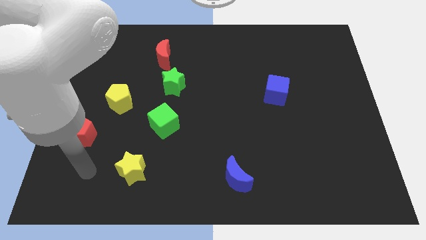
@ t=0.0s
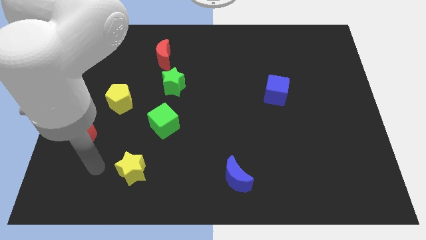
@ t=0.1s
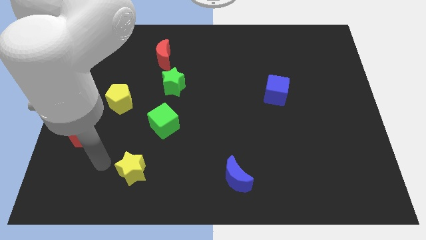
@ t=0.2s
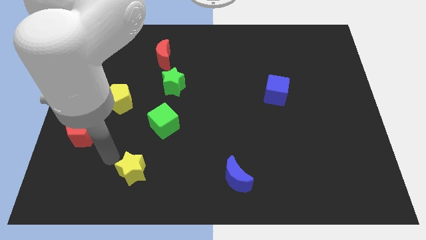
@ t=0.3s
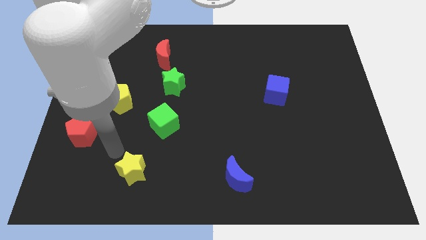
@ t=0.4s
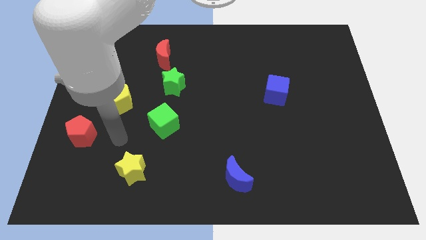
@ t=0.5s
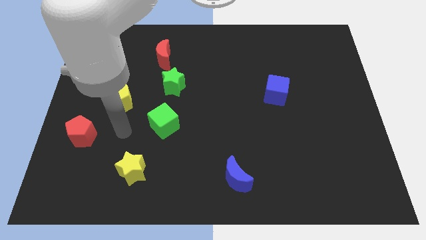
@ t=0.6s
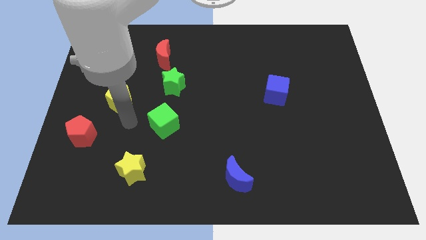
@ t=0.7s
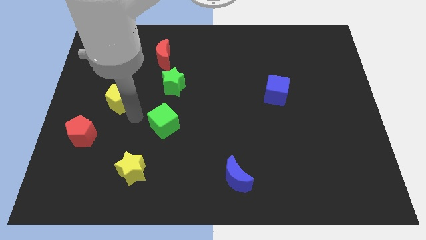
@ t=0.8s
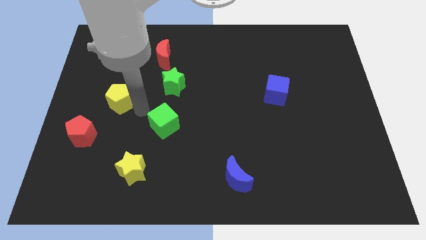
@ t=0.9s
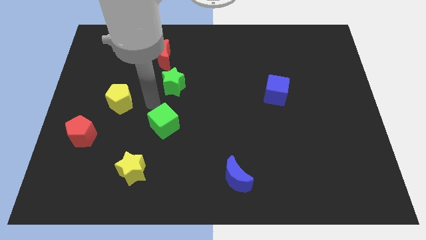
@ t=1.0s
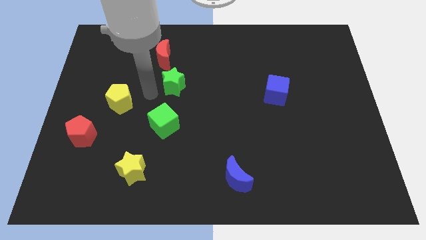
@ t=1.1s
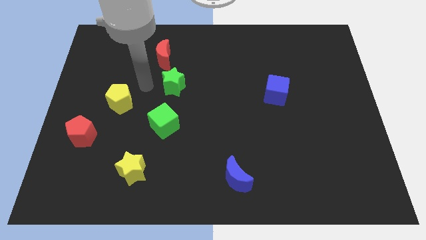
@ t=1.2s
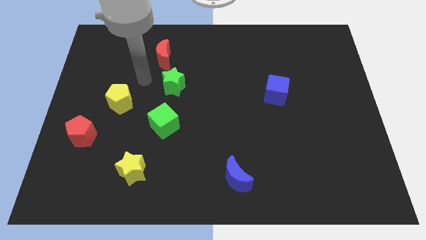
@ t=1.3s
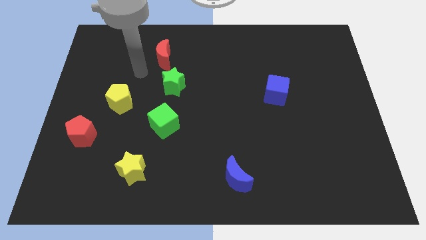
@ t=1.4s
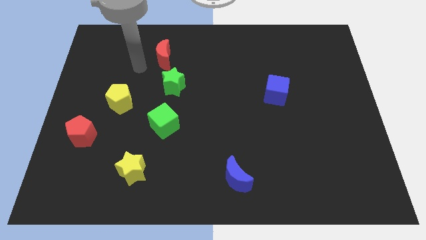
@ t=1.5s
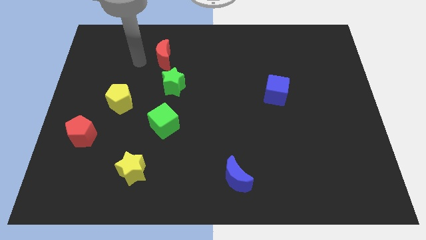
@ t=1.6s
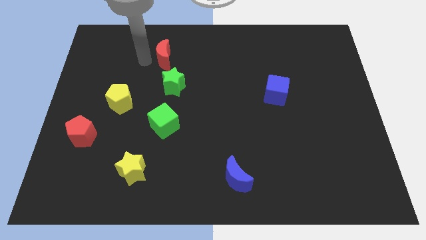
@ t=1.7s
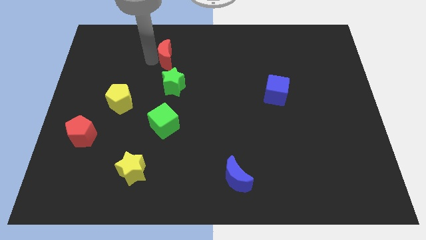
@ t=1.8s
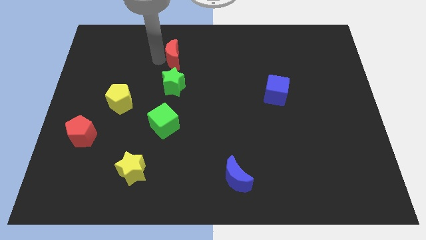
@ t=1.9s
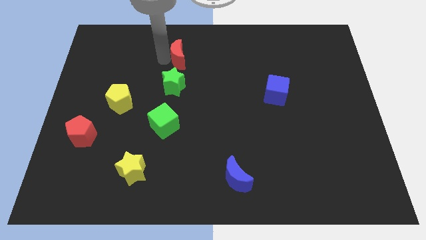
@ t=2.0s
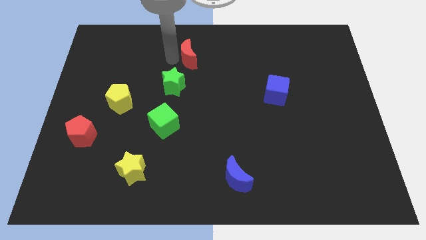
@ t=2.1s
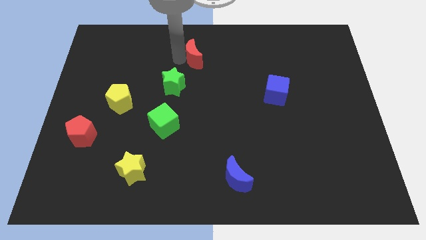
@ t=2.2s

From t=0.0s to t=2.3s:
slide the red moon a bit right

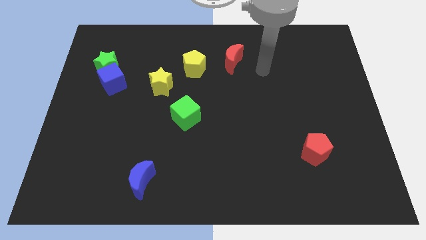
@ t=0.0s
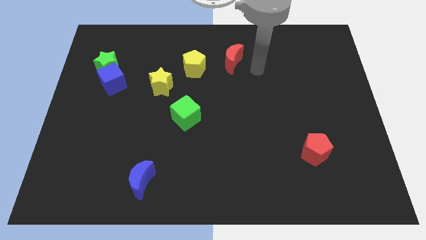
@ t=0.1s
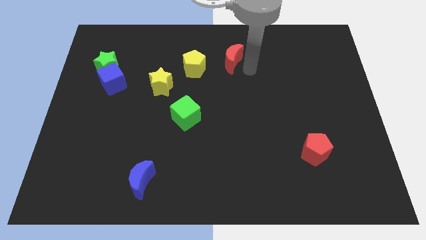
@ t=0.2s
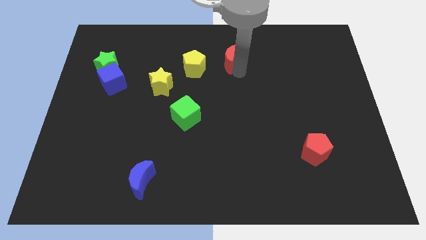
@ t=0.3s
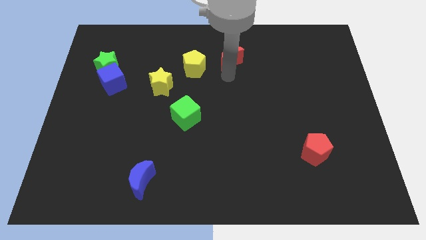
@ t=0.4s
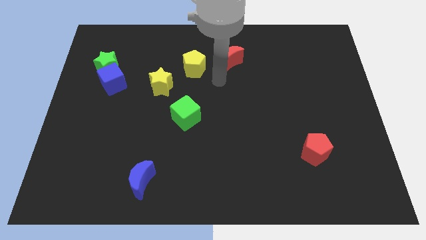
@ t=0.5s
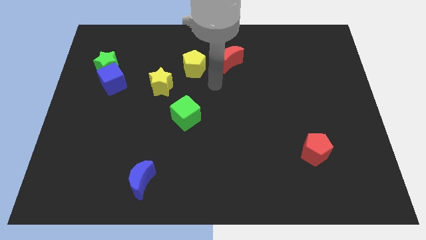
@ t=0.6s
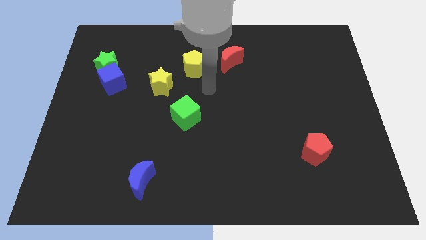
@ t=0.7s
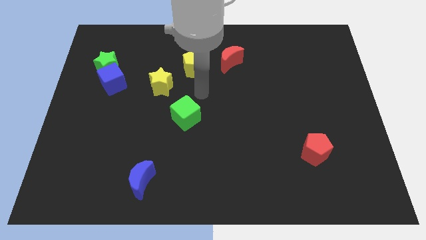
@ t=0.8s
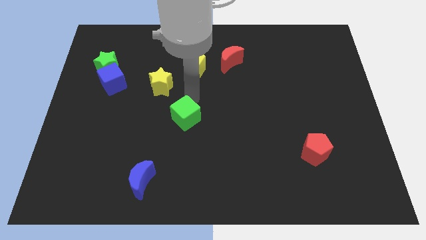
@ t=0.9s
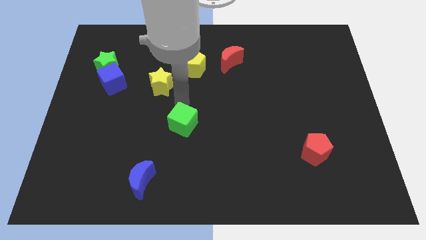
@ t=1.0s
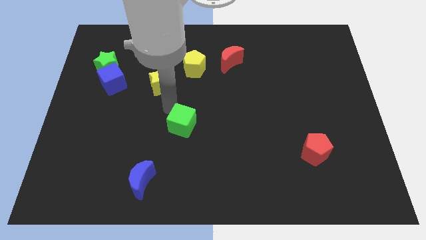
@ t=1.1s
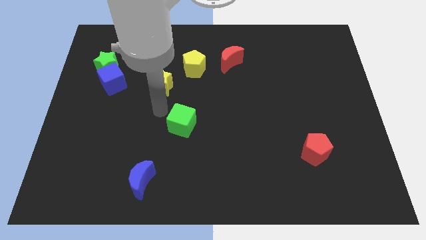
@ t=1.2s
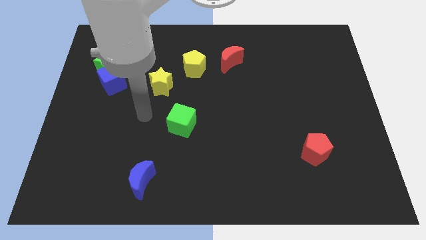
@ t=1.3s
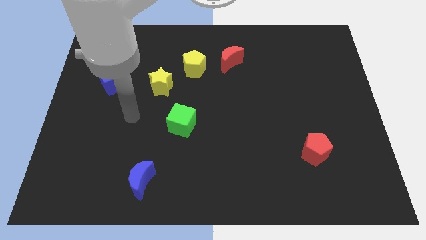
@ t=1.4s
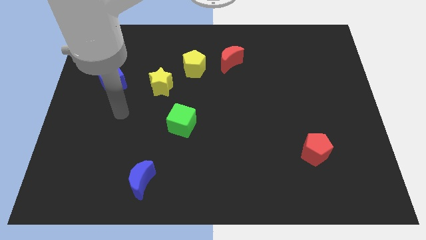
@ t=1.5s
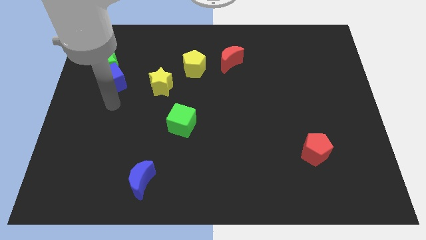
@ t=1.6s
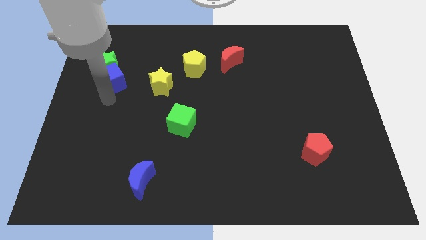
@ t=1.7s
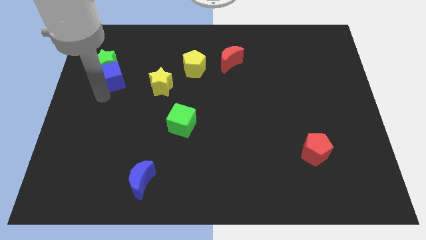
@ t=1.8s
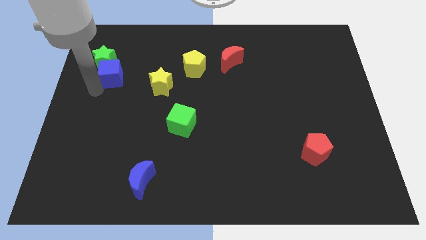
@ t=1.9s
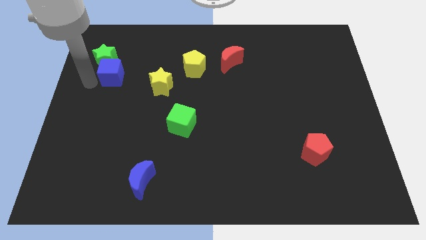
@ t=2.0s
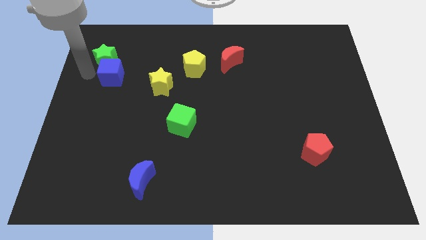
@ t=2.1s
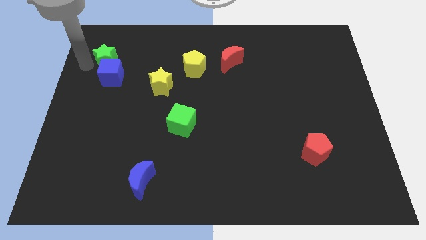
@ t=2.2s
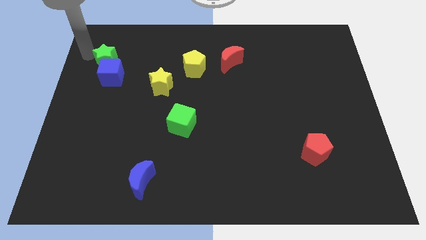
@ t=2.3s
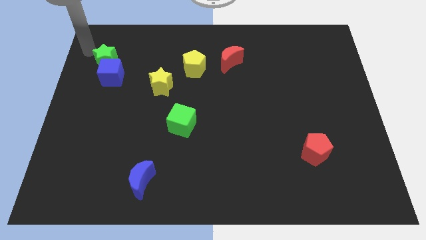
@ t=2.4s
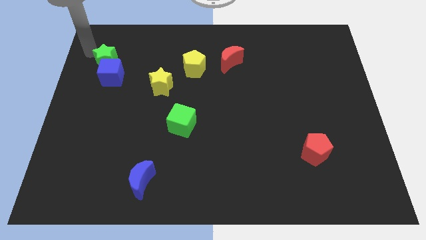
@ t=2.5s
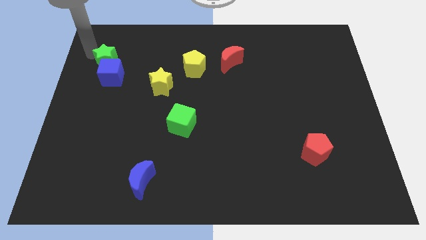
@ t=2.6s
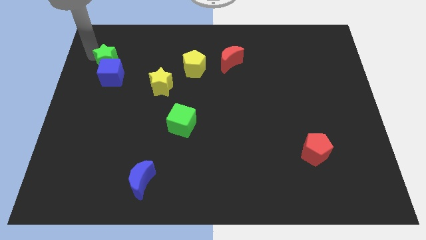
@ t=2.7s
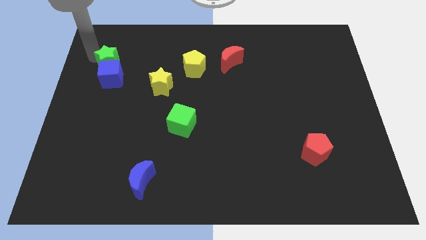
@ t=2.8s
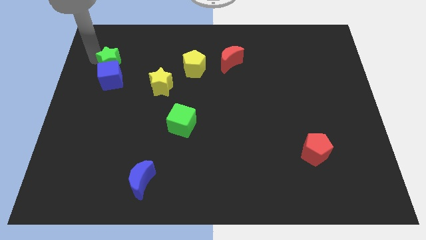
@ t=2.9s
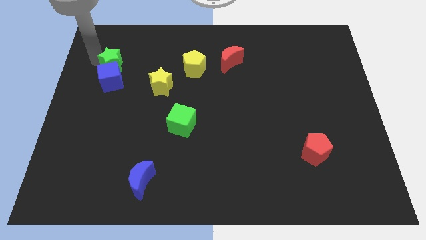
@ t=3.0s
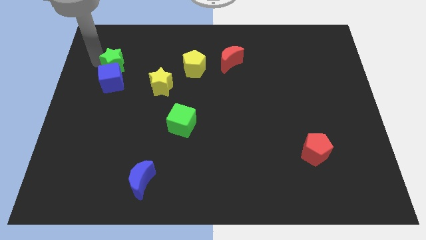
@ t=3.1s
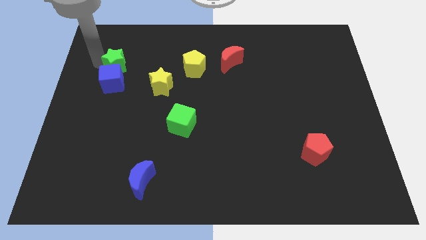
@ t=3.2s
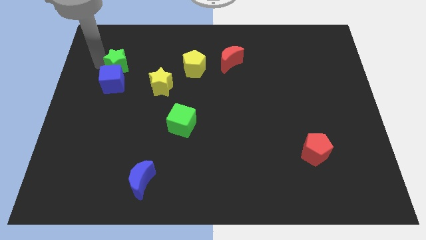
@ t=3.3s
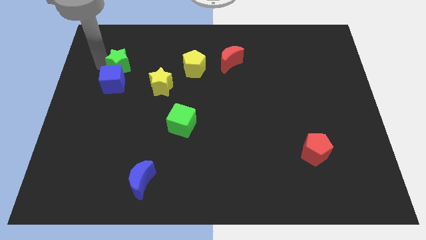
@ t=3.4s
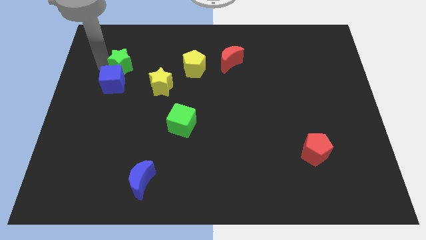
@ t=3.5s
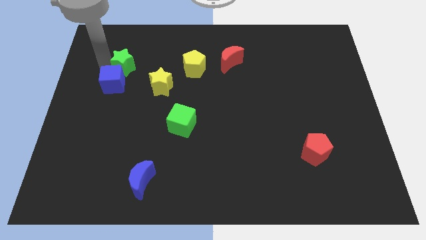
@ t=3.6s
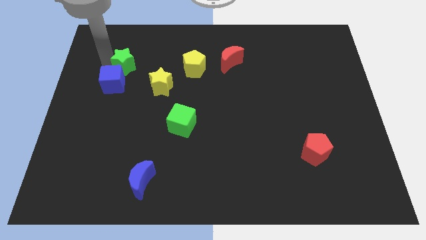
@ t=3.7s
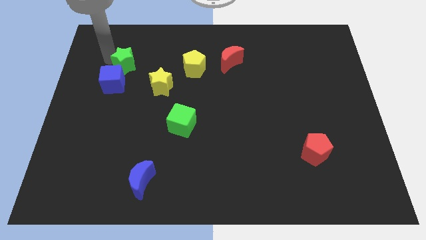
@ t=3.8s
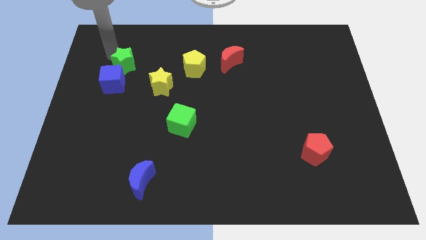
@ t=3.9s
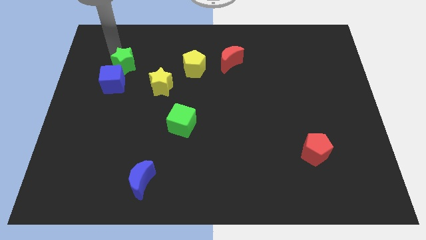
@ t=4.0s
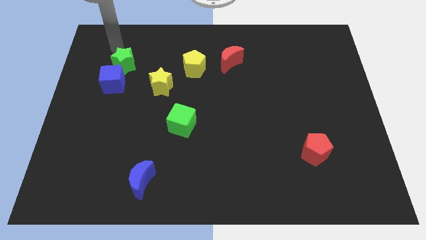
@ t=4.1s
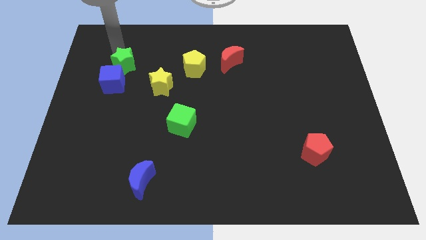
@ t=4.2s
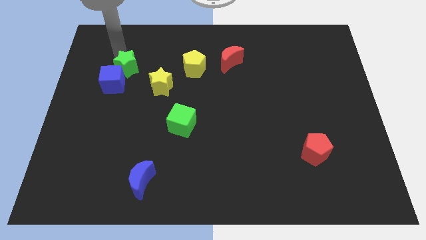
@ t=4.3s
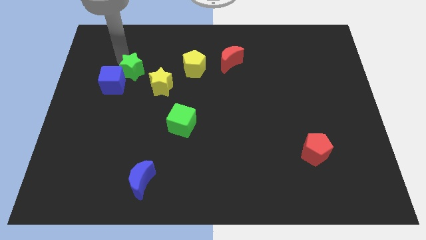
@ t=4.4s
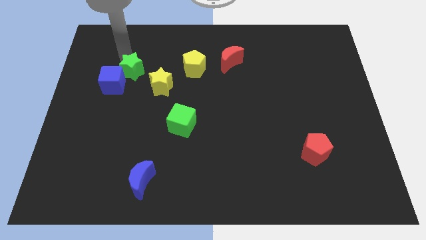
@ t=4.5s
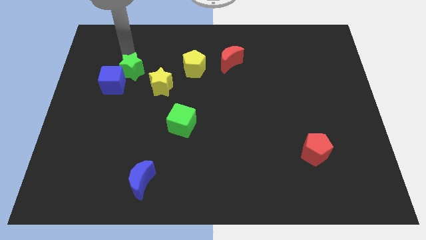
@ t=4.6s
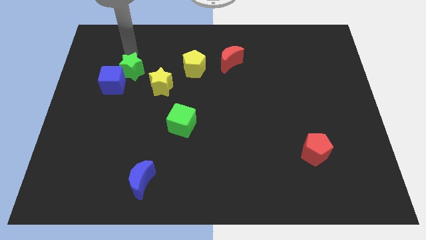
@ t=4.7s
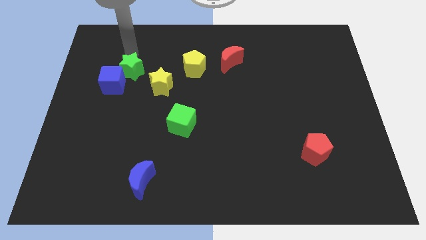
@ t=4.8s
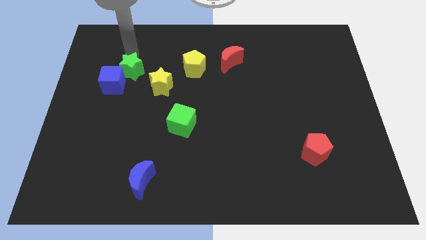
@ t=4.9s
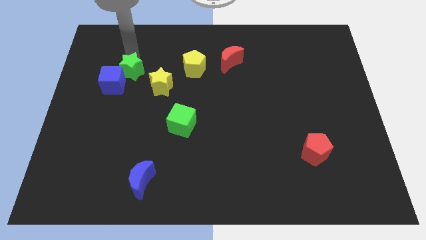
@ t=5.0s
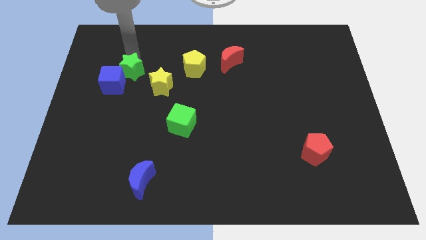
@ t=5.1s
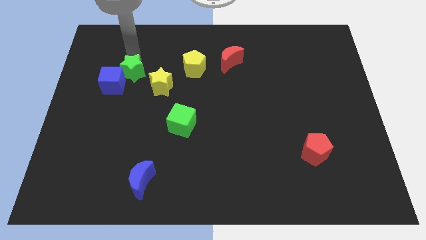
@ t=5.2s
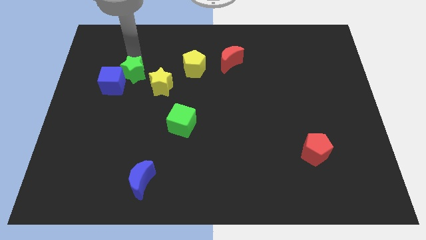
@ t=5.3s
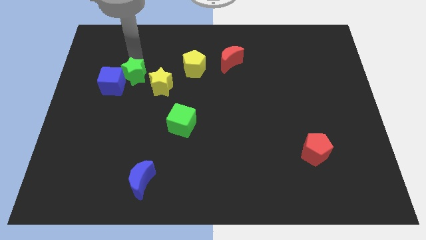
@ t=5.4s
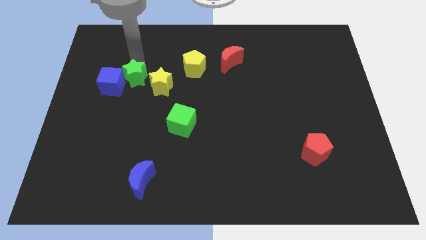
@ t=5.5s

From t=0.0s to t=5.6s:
slide the green star slightly downwards and to the right
